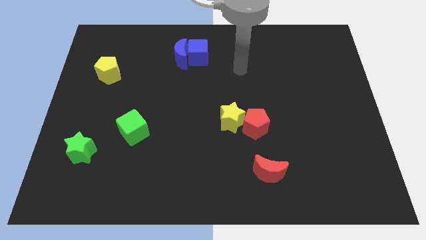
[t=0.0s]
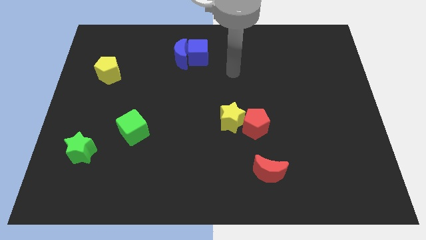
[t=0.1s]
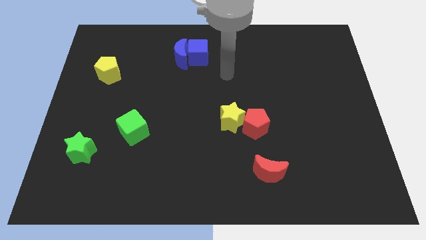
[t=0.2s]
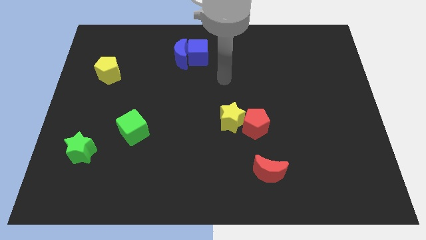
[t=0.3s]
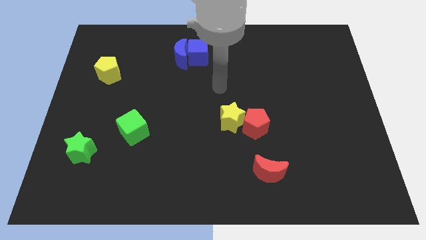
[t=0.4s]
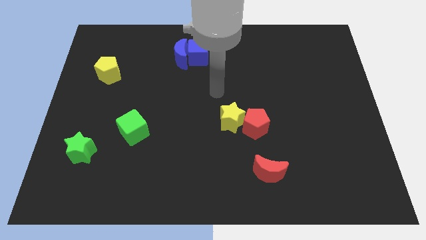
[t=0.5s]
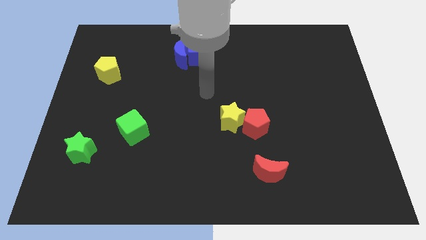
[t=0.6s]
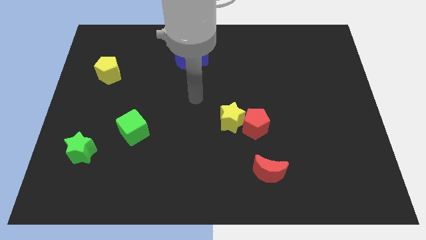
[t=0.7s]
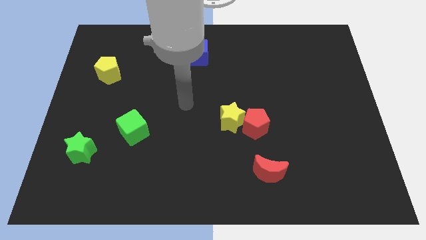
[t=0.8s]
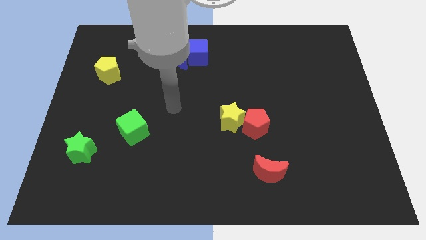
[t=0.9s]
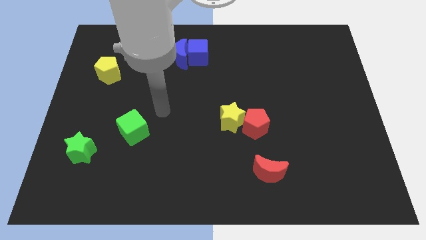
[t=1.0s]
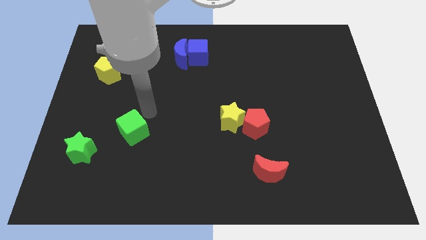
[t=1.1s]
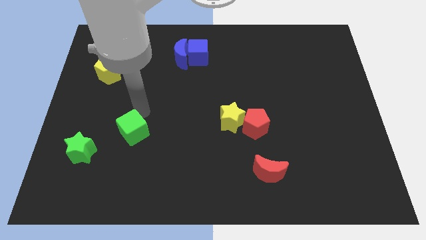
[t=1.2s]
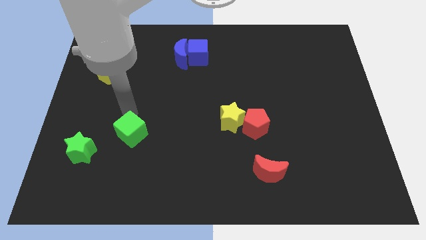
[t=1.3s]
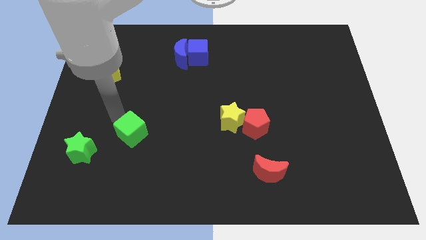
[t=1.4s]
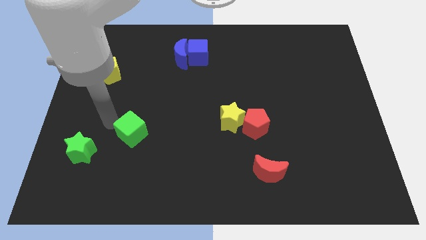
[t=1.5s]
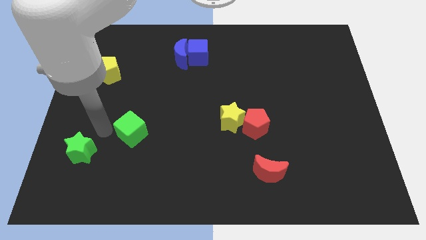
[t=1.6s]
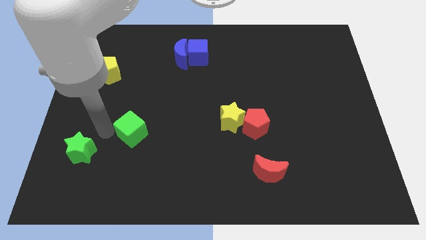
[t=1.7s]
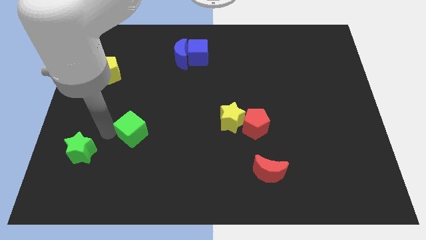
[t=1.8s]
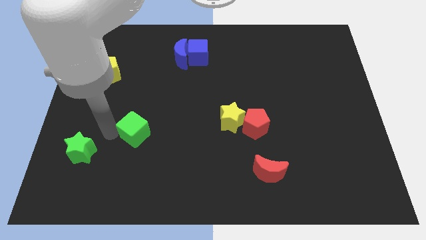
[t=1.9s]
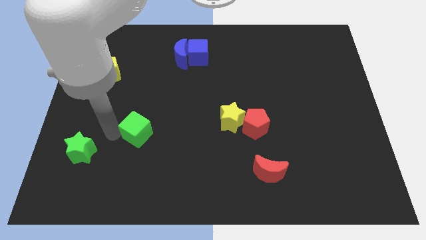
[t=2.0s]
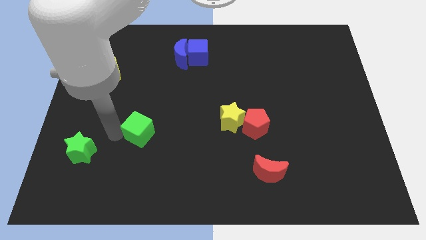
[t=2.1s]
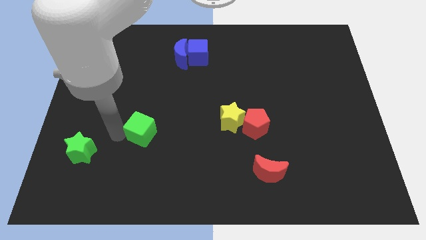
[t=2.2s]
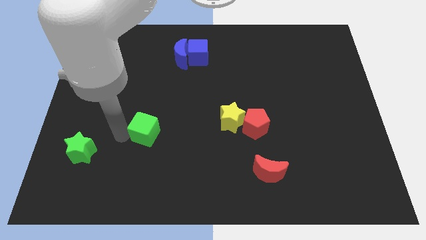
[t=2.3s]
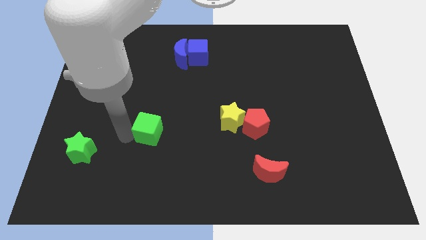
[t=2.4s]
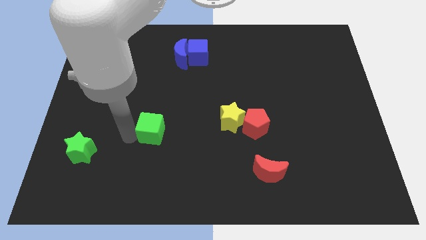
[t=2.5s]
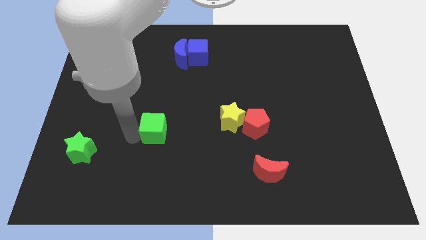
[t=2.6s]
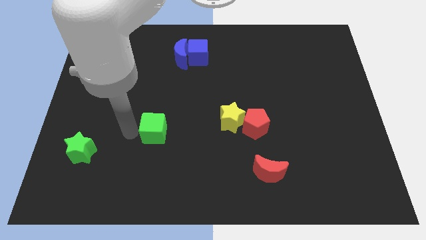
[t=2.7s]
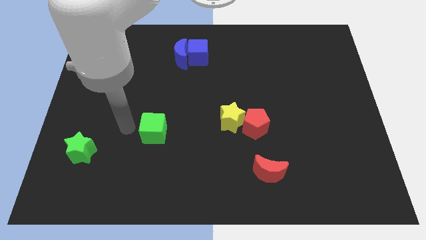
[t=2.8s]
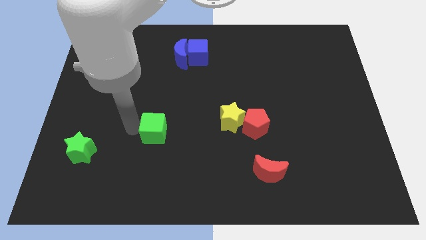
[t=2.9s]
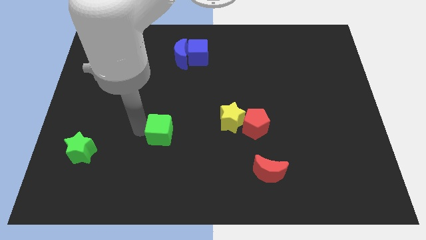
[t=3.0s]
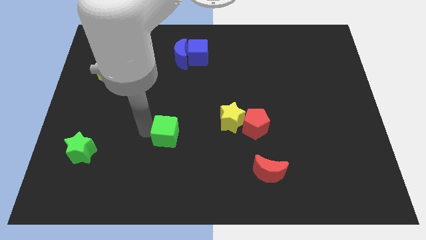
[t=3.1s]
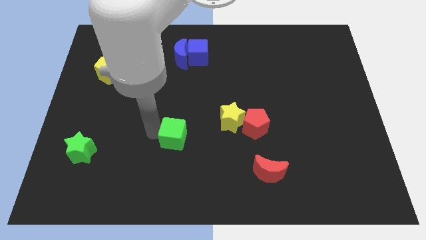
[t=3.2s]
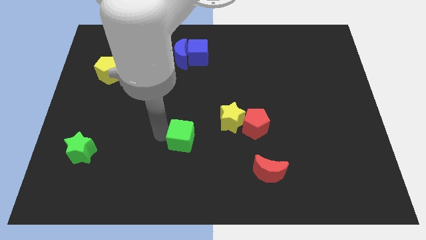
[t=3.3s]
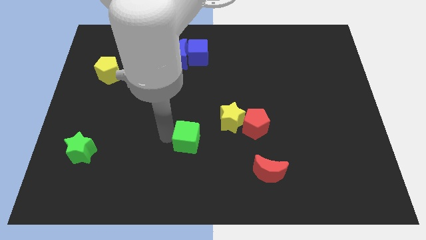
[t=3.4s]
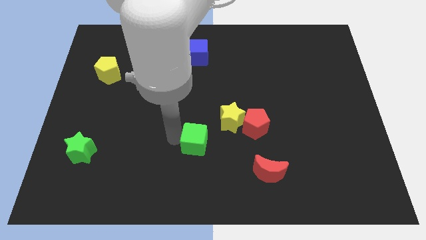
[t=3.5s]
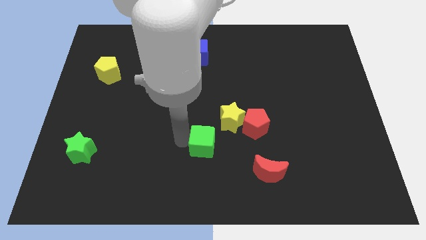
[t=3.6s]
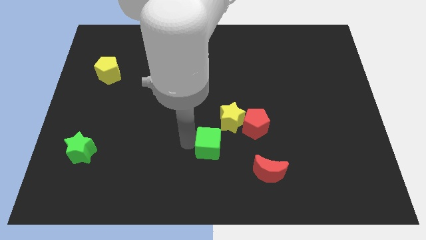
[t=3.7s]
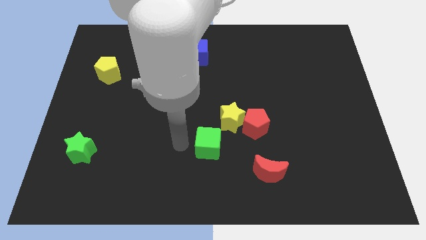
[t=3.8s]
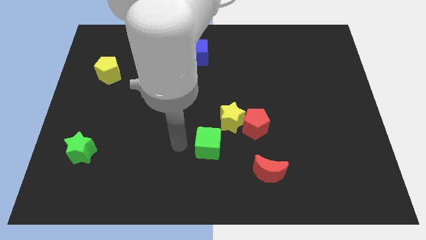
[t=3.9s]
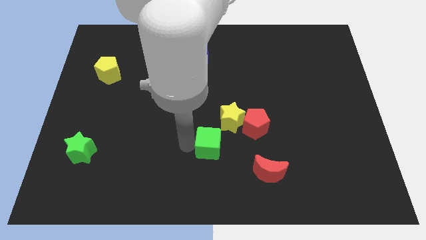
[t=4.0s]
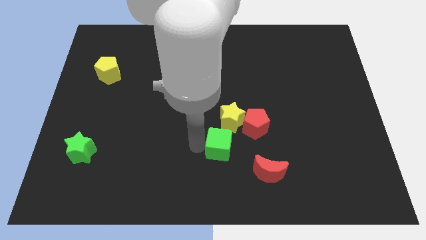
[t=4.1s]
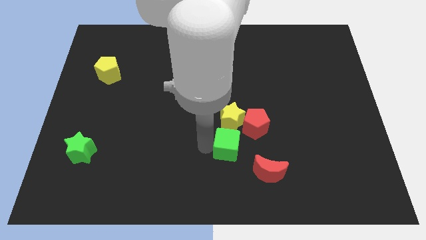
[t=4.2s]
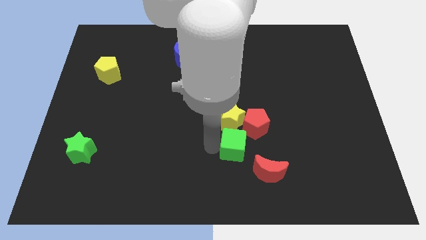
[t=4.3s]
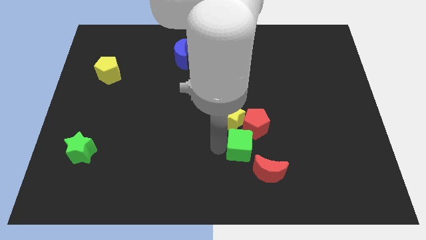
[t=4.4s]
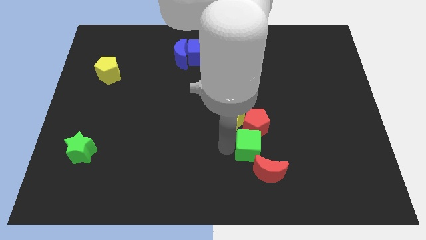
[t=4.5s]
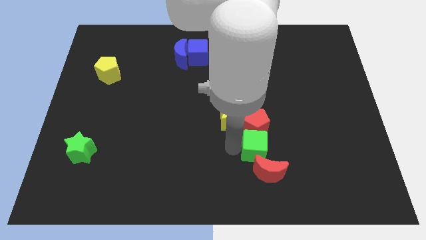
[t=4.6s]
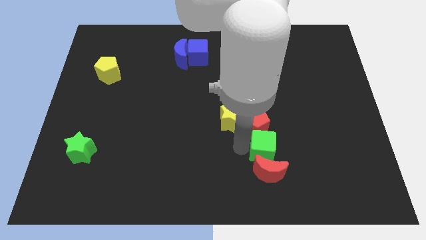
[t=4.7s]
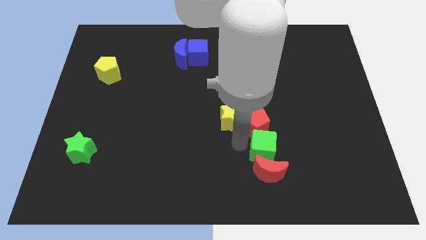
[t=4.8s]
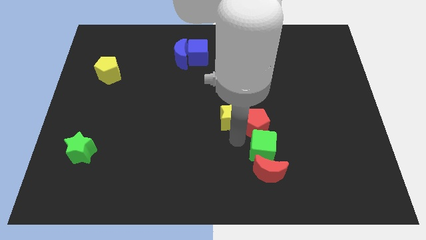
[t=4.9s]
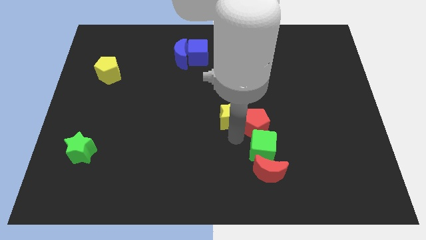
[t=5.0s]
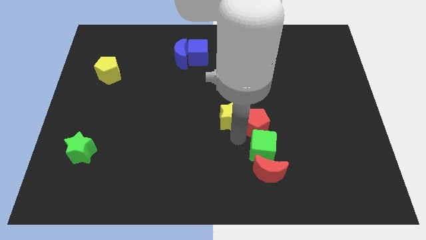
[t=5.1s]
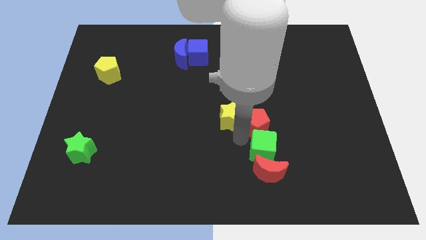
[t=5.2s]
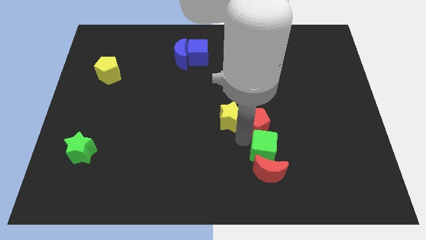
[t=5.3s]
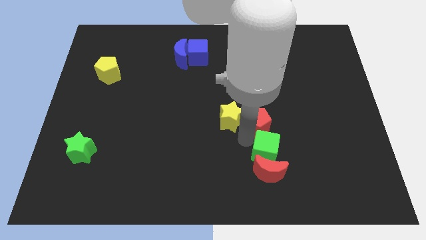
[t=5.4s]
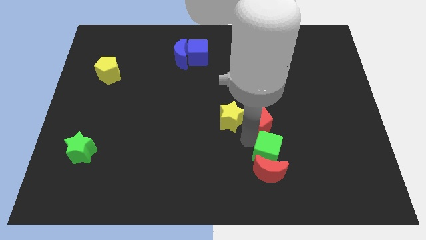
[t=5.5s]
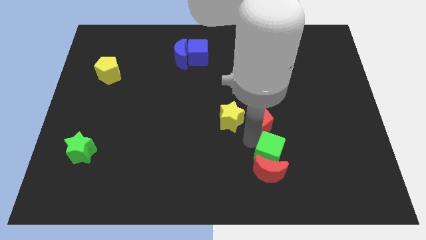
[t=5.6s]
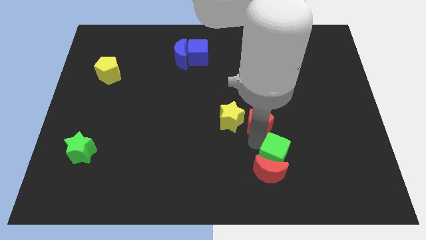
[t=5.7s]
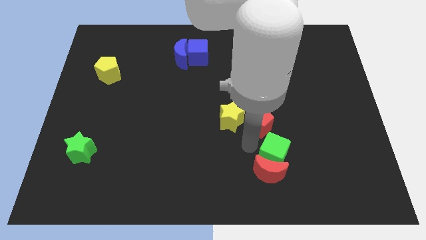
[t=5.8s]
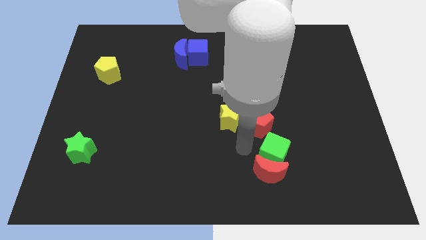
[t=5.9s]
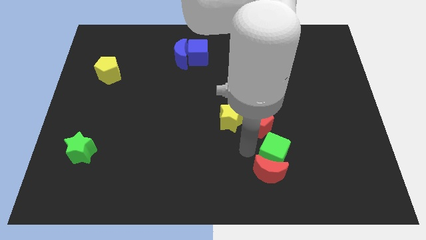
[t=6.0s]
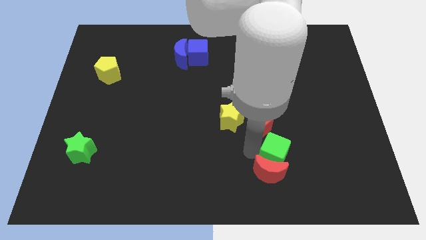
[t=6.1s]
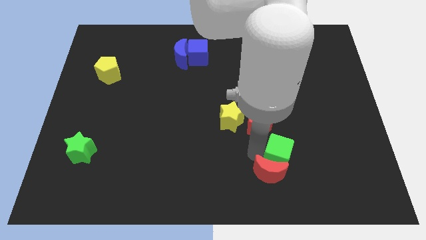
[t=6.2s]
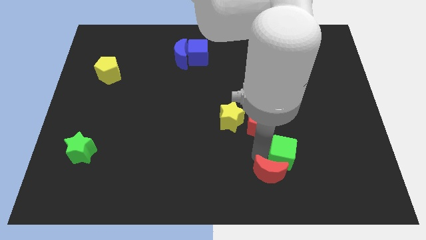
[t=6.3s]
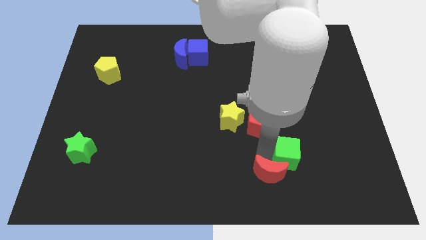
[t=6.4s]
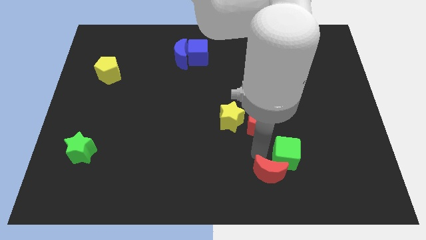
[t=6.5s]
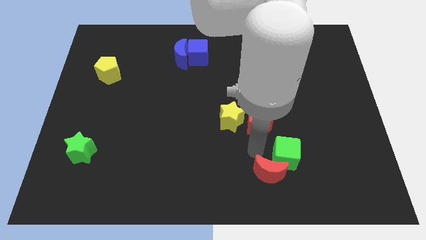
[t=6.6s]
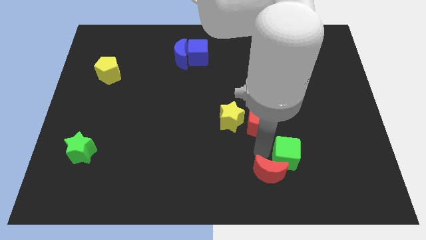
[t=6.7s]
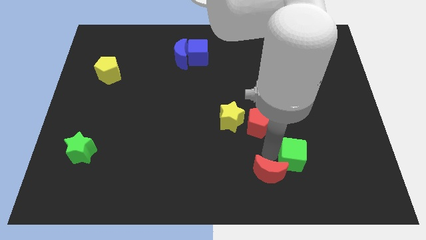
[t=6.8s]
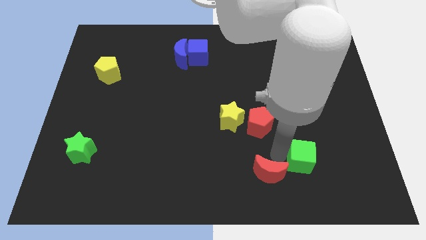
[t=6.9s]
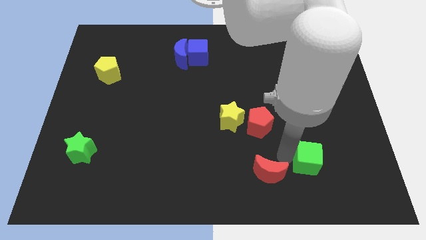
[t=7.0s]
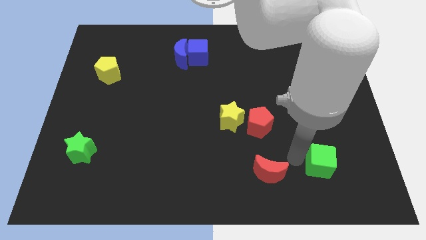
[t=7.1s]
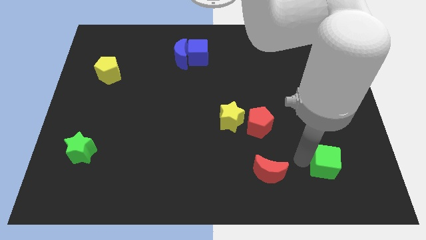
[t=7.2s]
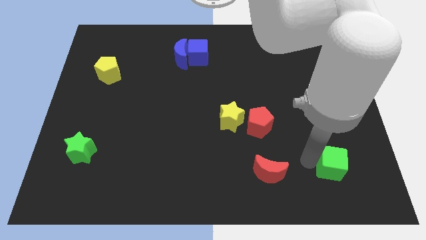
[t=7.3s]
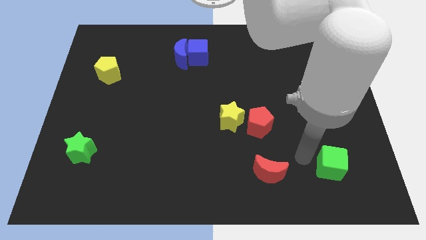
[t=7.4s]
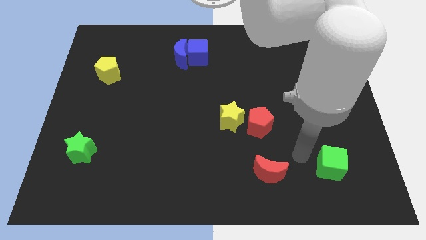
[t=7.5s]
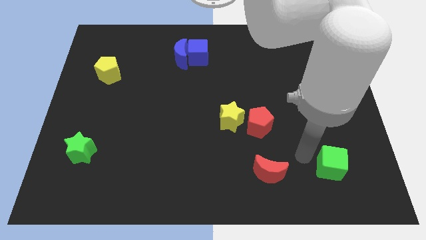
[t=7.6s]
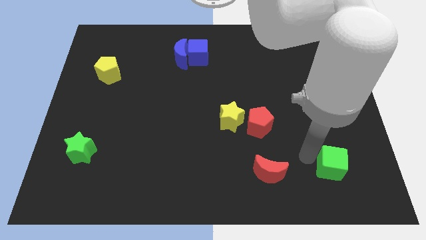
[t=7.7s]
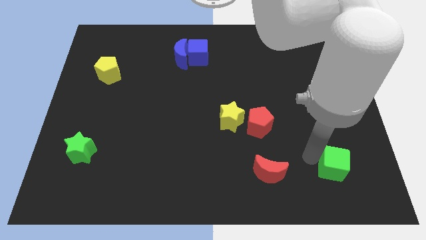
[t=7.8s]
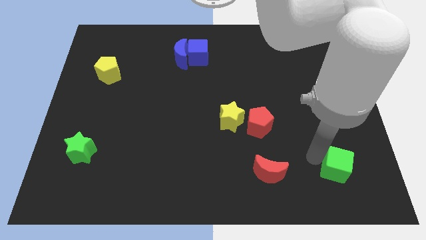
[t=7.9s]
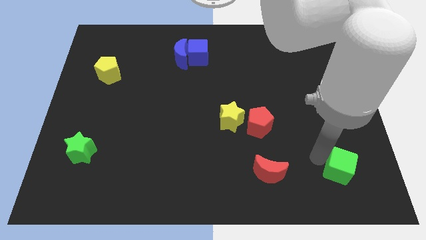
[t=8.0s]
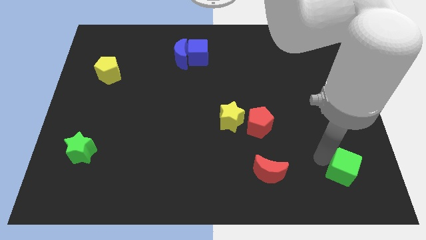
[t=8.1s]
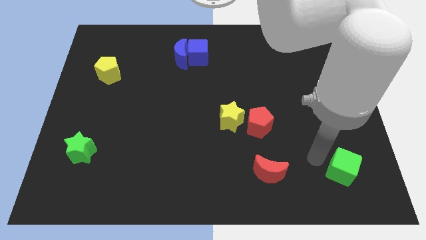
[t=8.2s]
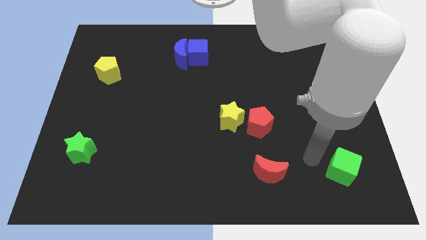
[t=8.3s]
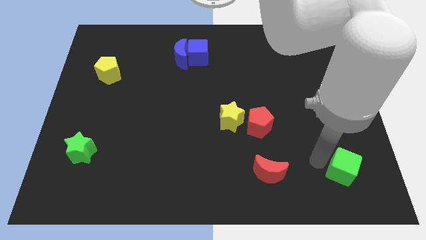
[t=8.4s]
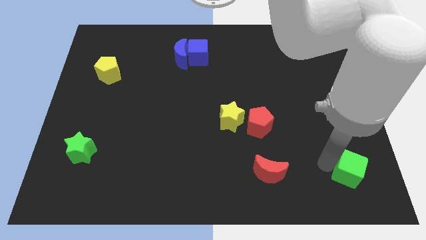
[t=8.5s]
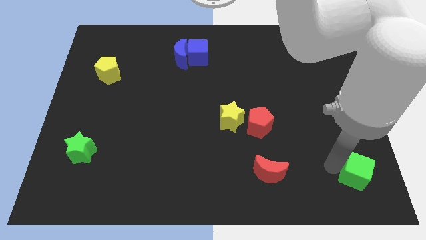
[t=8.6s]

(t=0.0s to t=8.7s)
put the green cube to the bottom right corner
